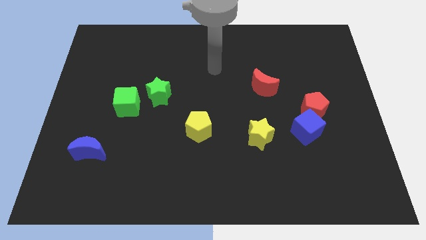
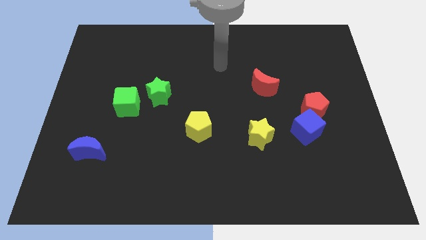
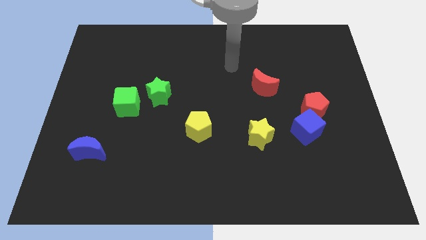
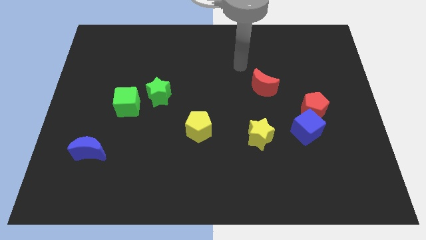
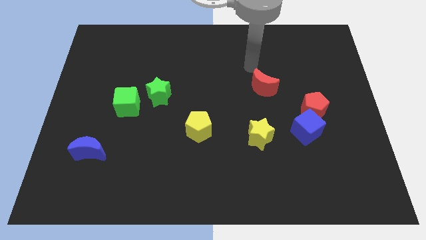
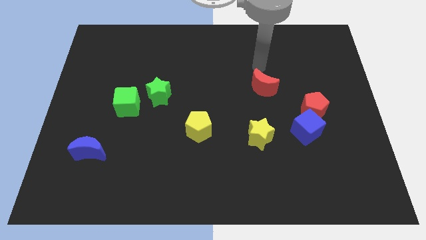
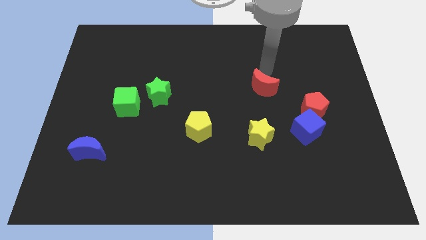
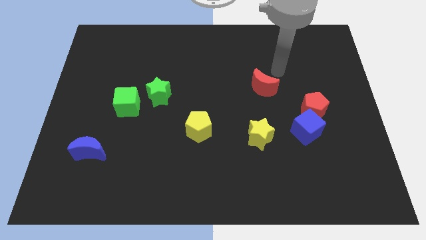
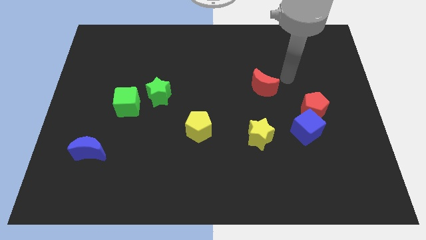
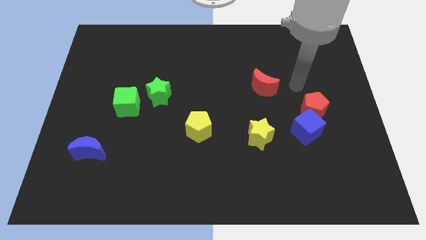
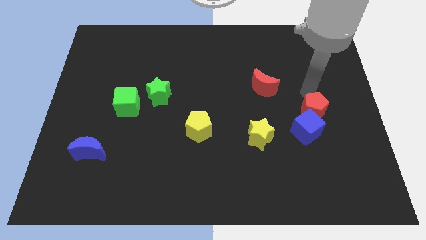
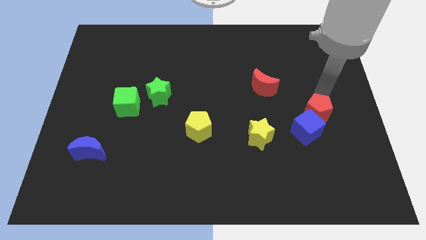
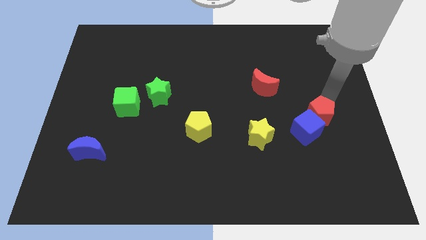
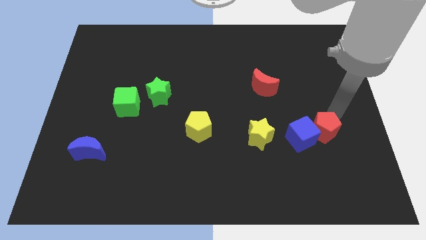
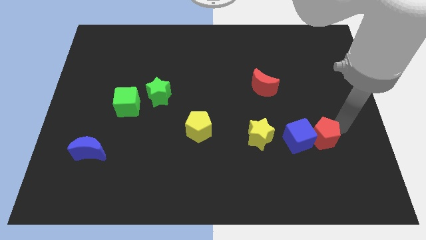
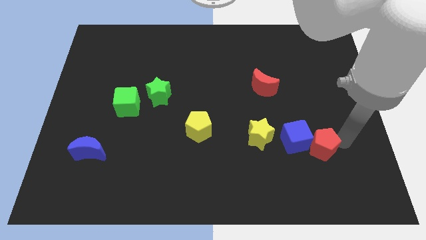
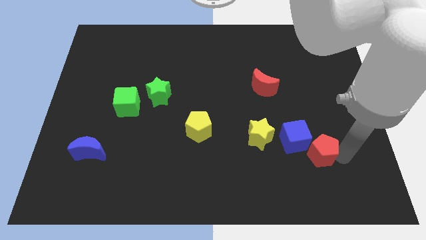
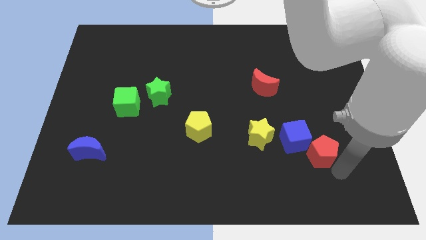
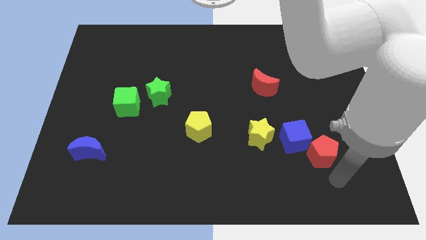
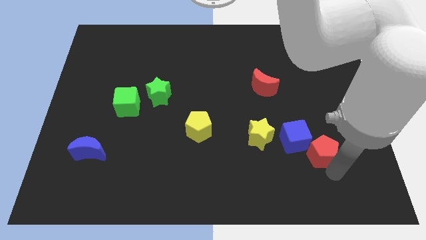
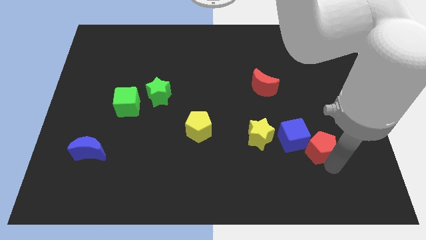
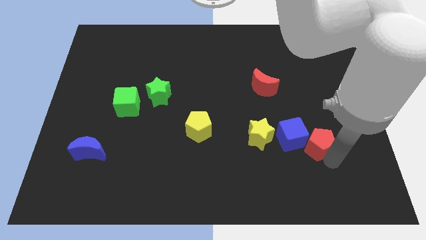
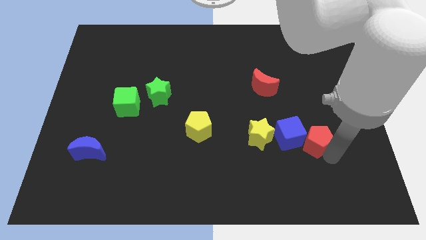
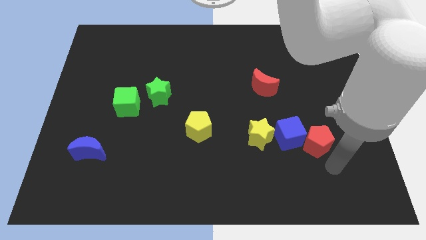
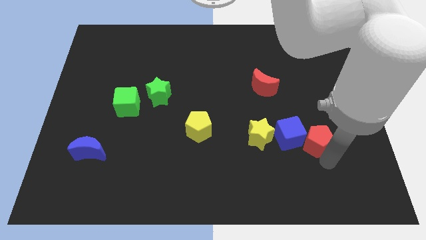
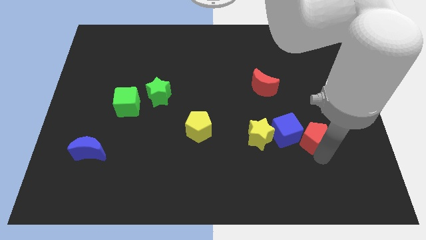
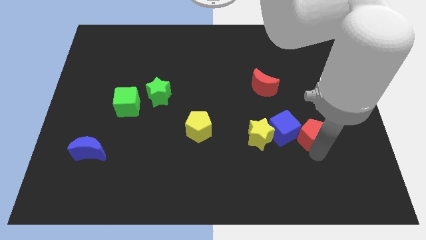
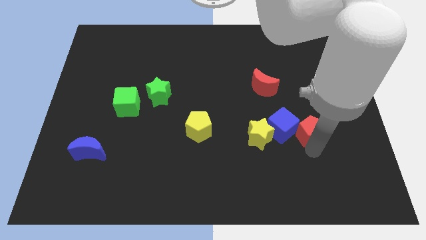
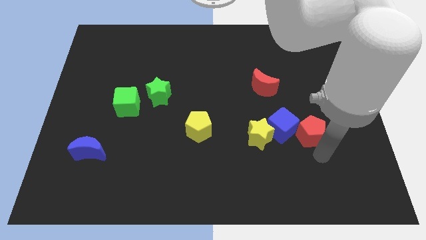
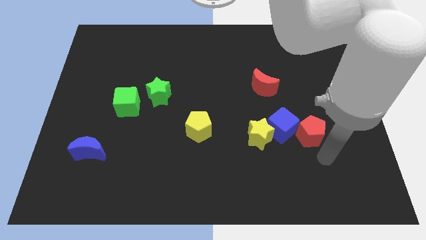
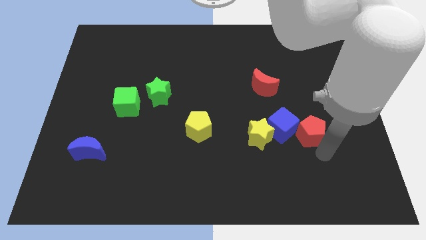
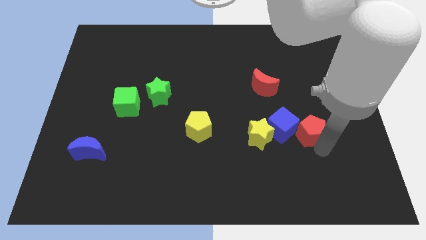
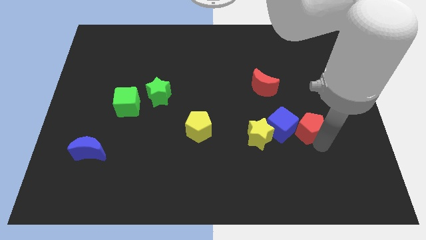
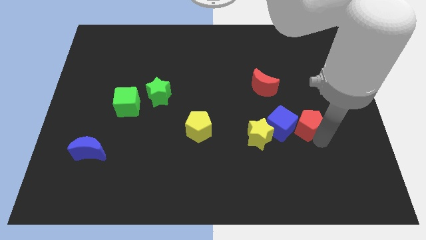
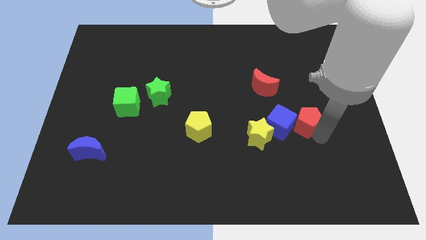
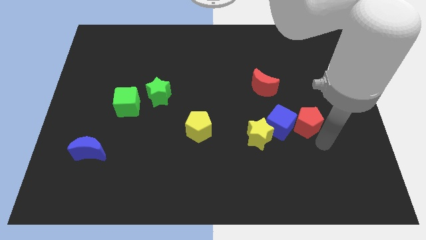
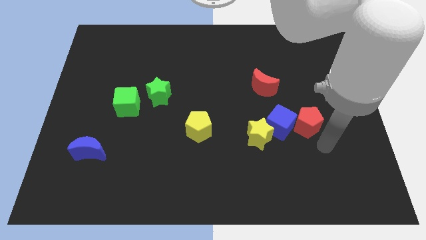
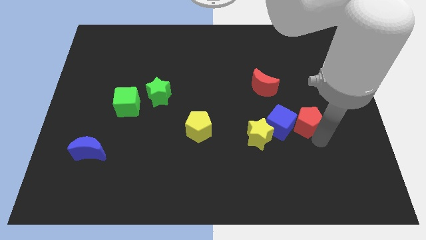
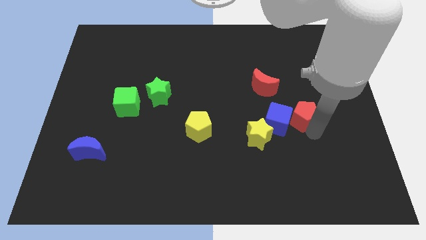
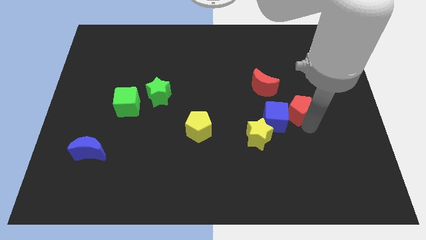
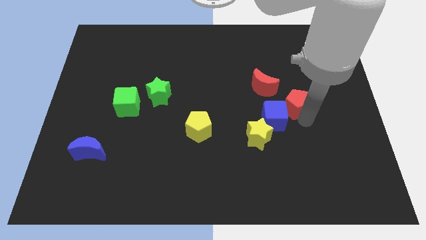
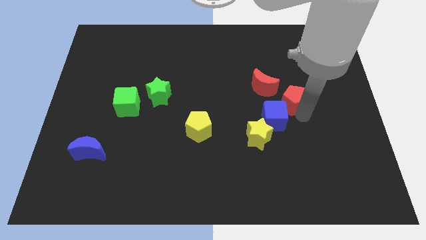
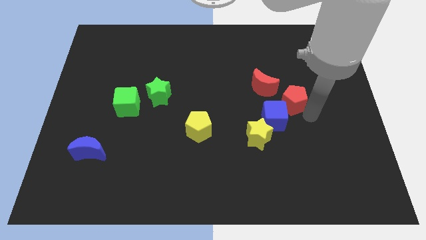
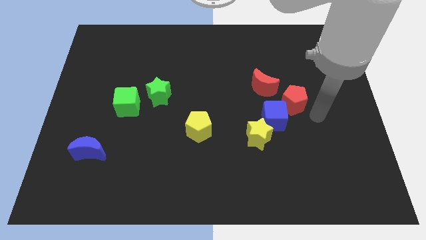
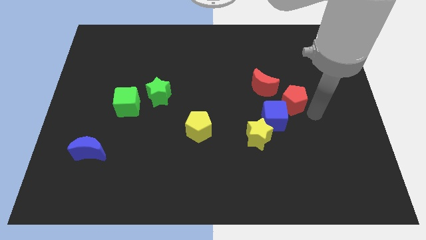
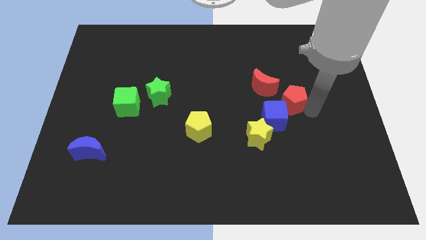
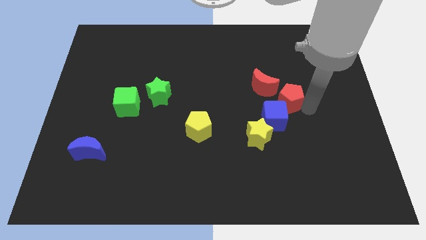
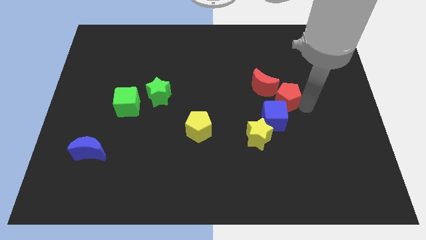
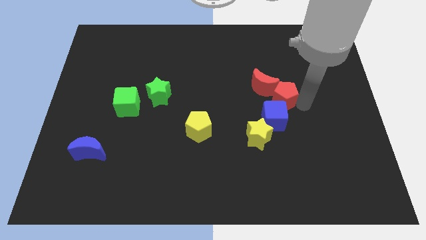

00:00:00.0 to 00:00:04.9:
move the red pentagon next to the red moon

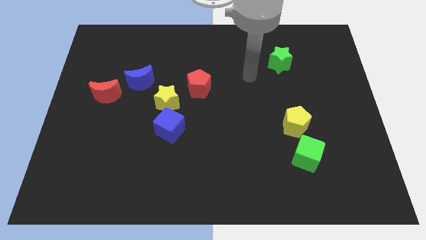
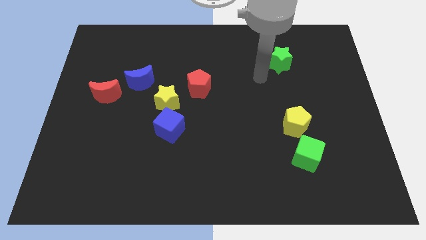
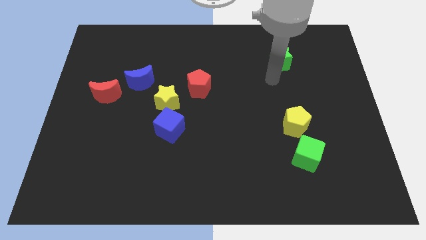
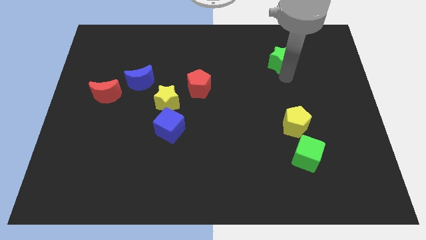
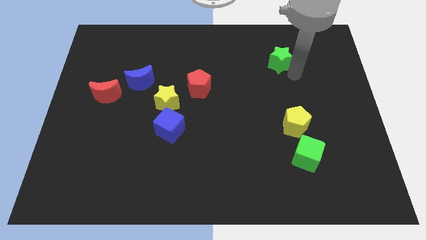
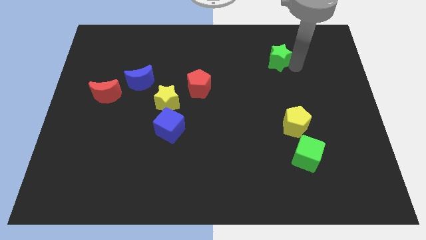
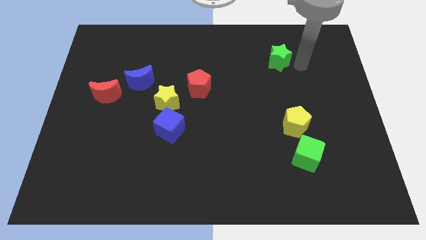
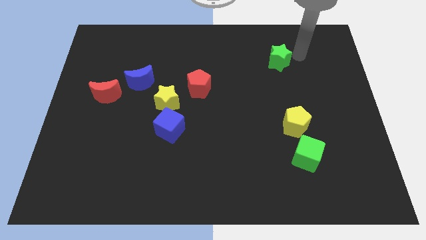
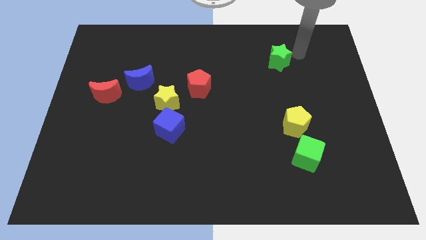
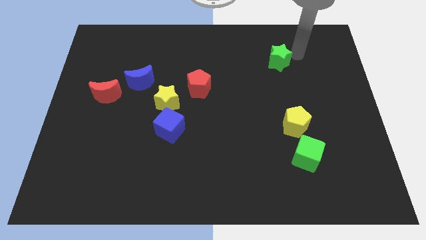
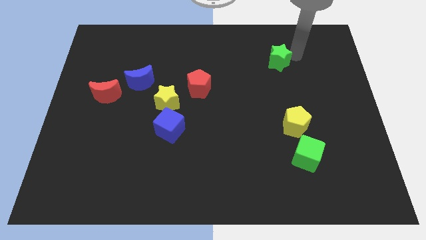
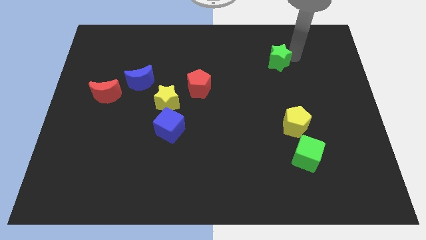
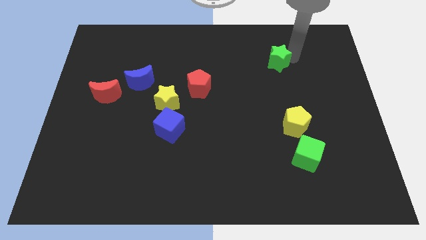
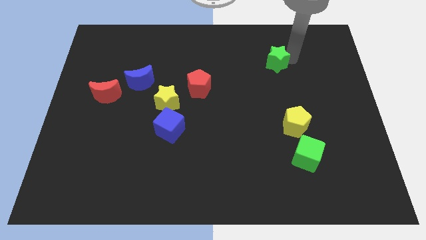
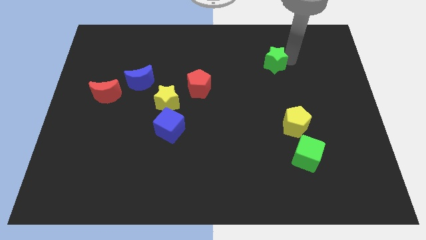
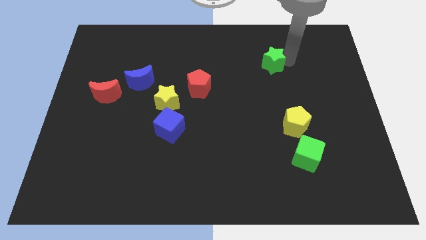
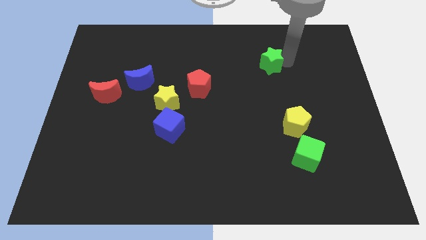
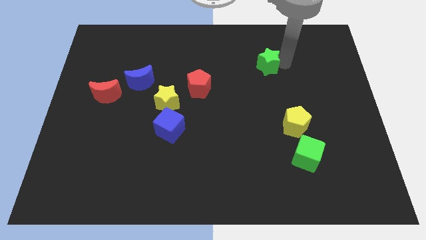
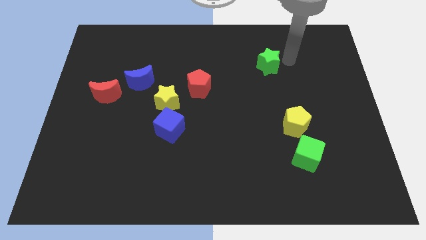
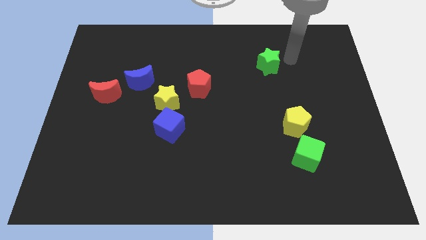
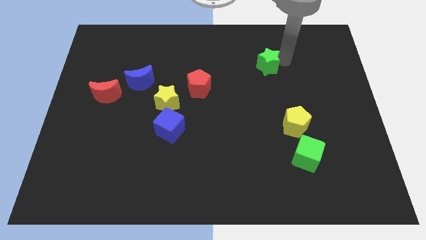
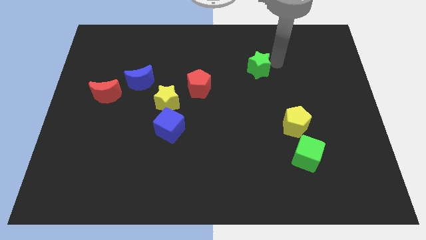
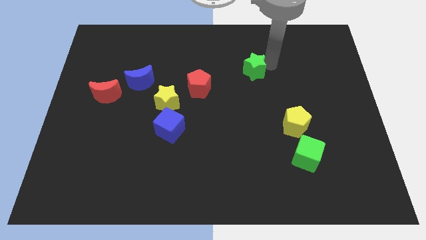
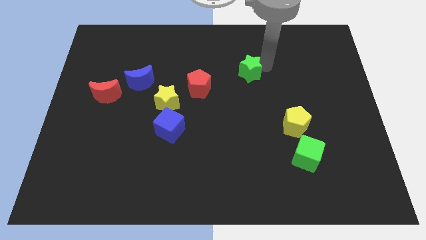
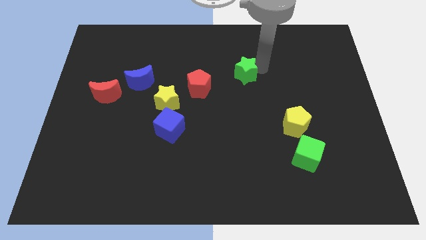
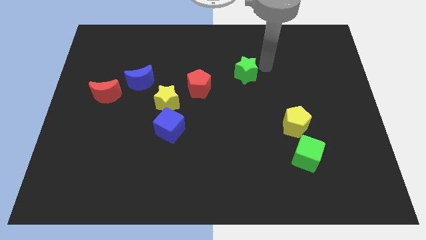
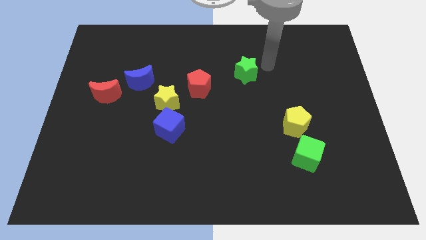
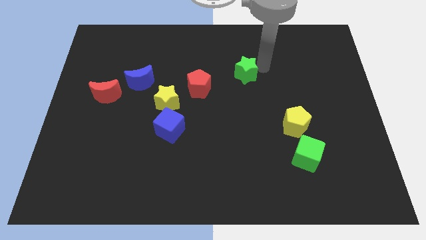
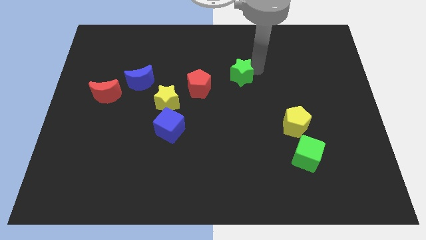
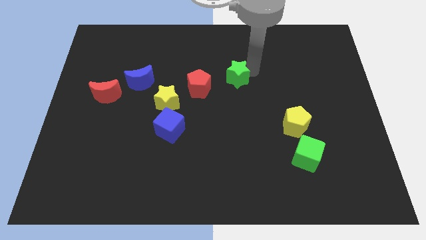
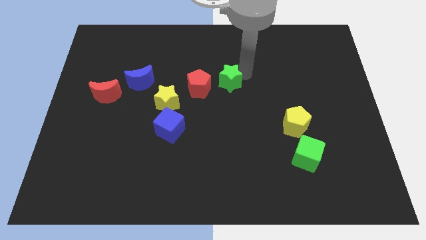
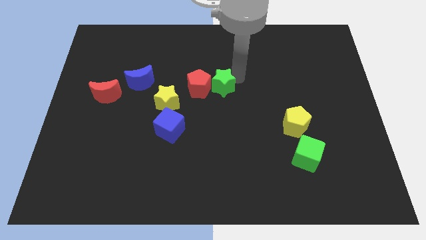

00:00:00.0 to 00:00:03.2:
slide the green star towards the red pentagon
